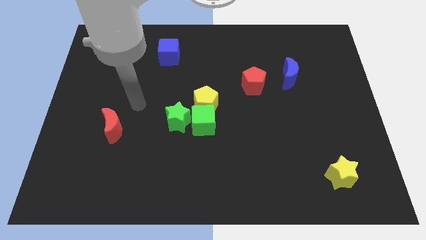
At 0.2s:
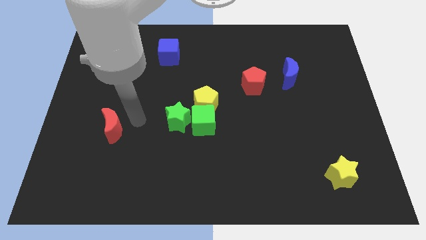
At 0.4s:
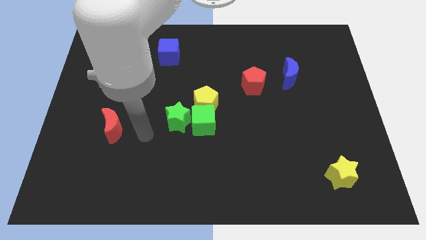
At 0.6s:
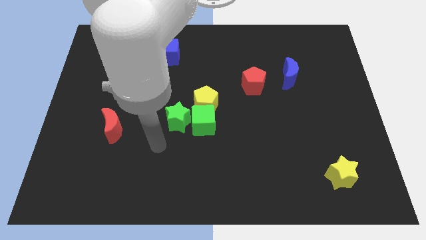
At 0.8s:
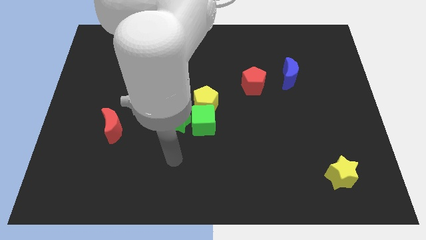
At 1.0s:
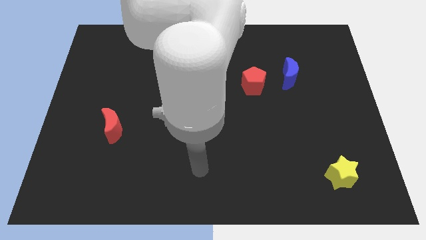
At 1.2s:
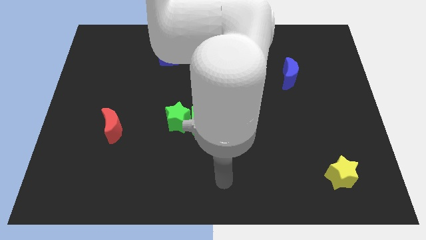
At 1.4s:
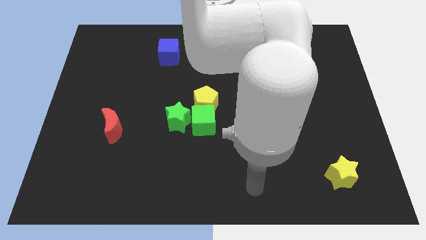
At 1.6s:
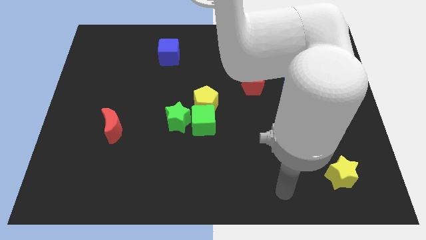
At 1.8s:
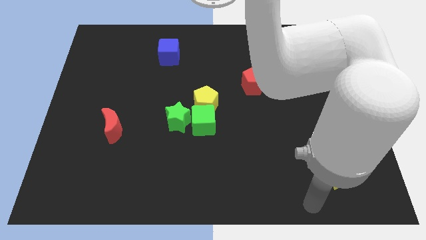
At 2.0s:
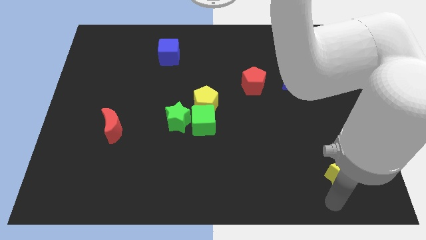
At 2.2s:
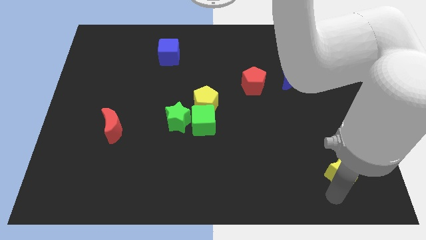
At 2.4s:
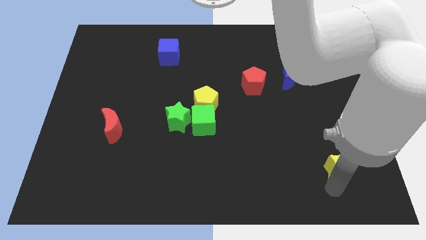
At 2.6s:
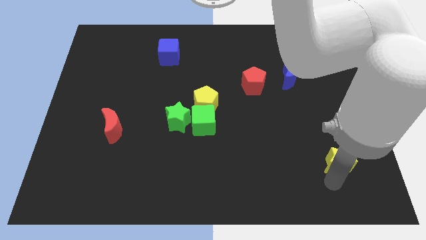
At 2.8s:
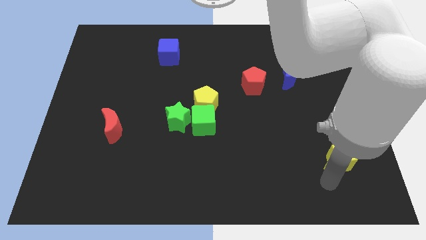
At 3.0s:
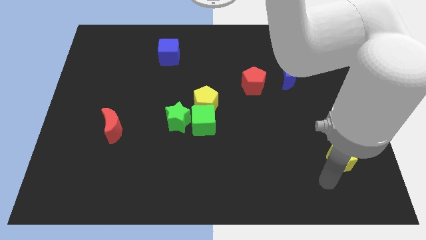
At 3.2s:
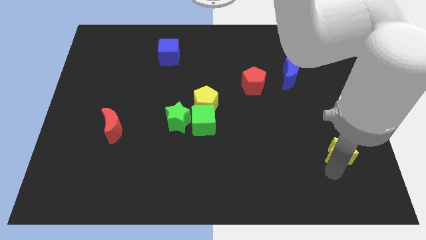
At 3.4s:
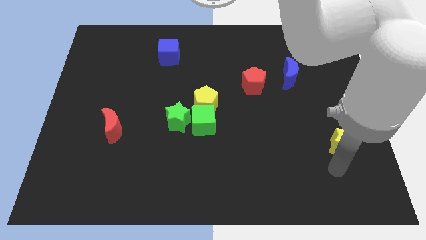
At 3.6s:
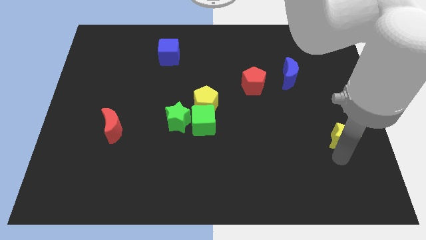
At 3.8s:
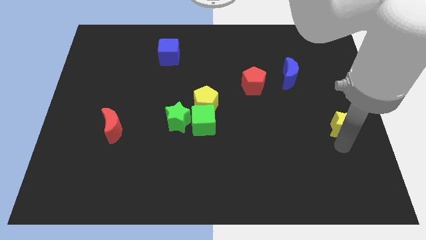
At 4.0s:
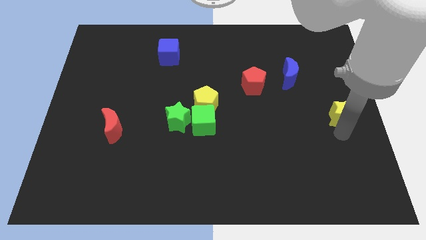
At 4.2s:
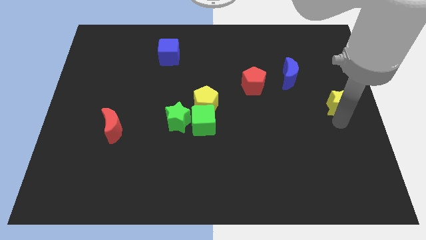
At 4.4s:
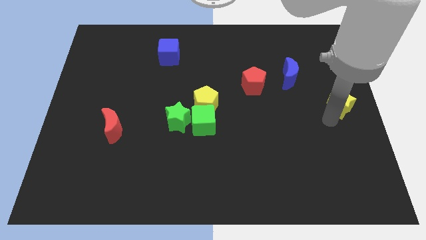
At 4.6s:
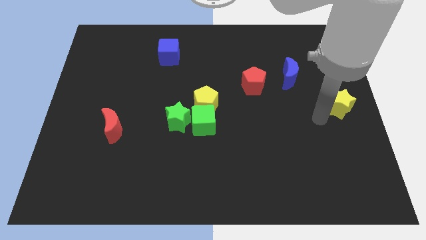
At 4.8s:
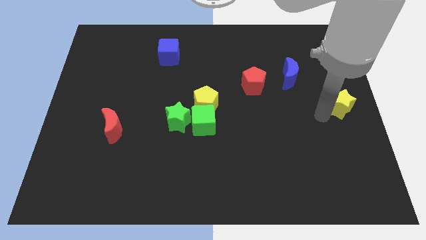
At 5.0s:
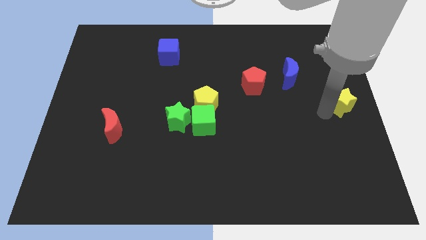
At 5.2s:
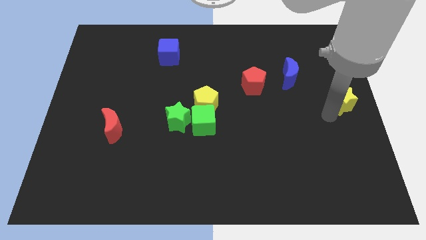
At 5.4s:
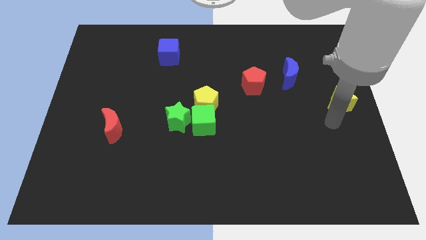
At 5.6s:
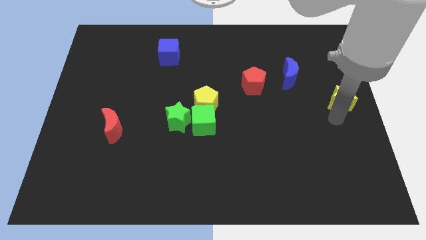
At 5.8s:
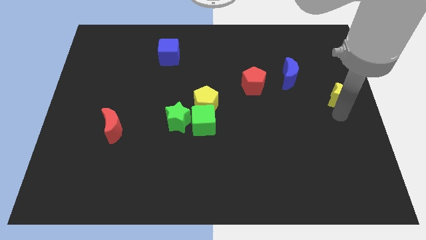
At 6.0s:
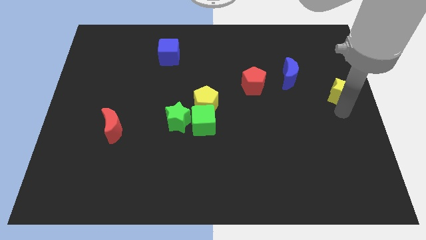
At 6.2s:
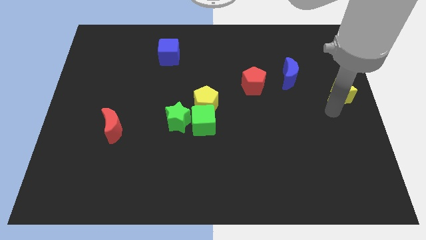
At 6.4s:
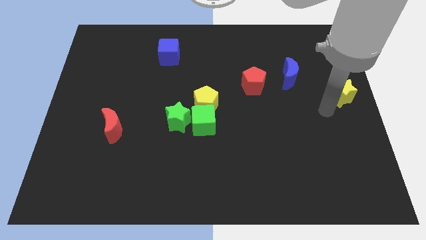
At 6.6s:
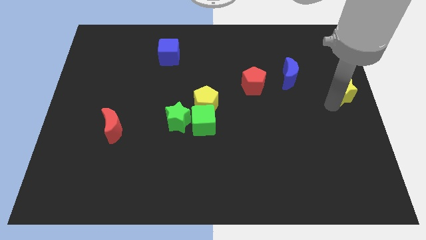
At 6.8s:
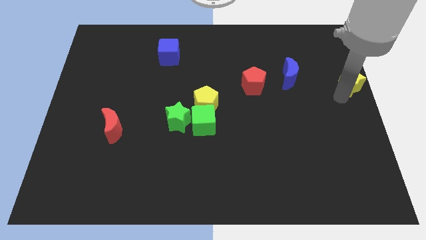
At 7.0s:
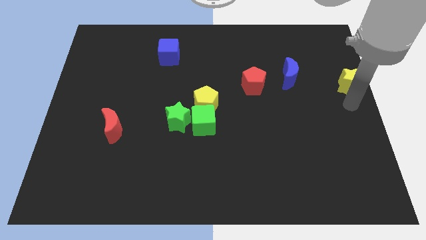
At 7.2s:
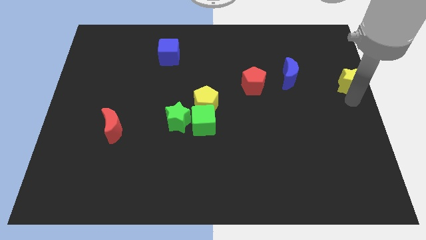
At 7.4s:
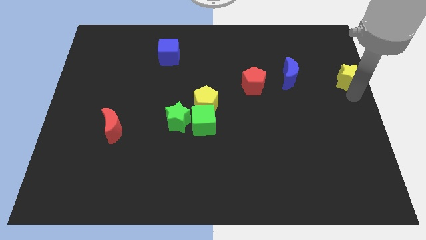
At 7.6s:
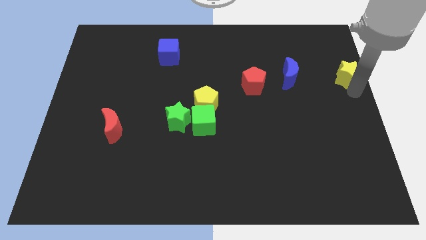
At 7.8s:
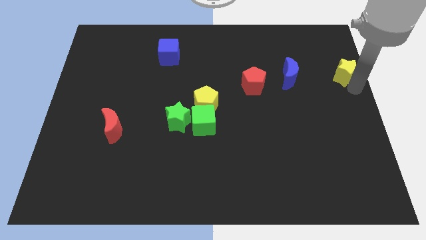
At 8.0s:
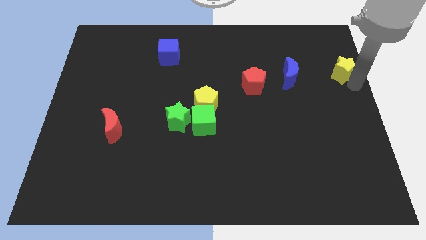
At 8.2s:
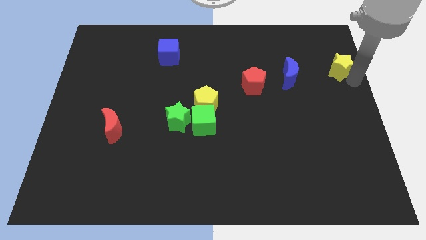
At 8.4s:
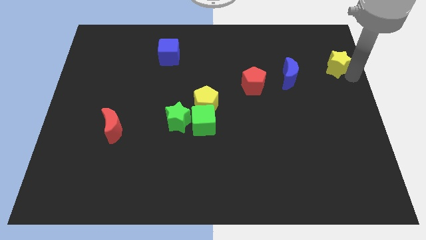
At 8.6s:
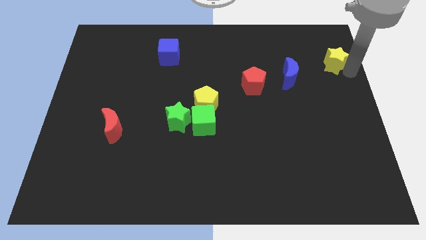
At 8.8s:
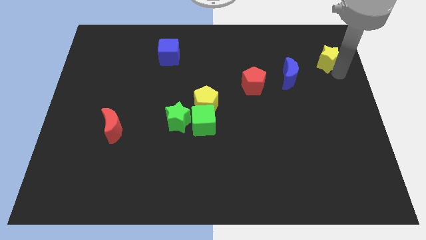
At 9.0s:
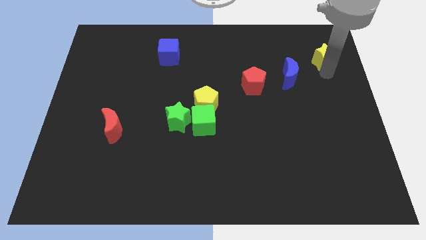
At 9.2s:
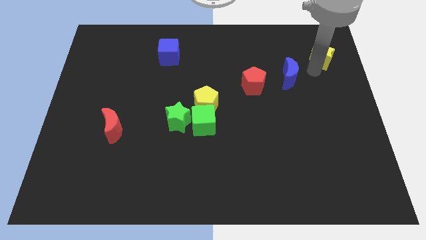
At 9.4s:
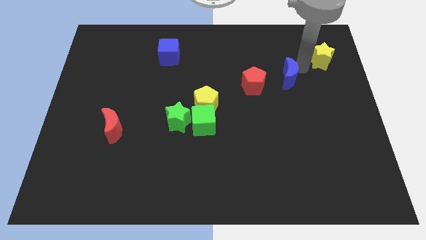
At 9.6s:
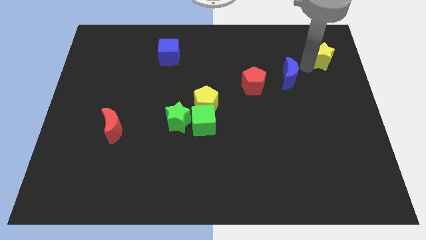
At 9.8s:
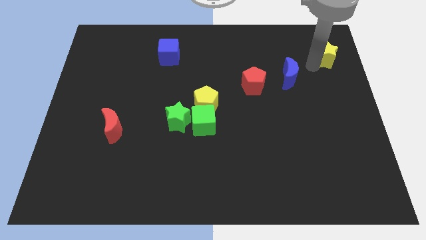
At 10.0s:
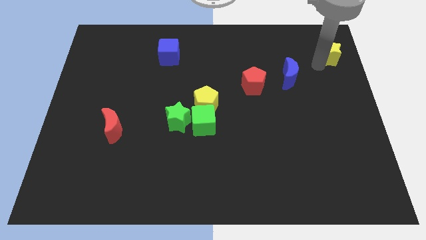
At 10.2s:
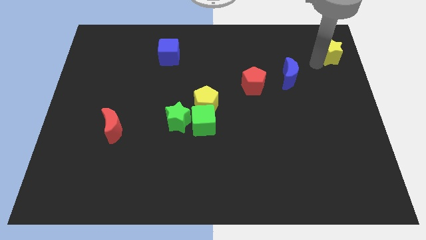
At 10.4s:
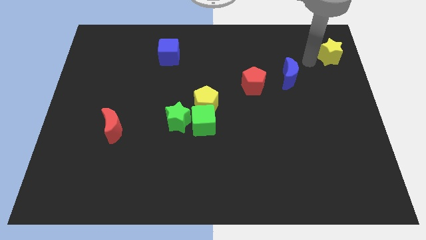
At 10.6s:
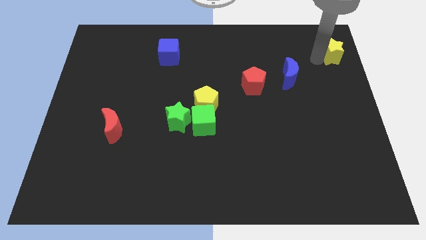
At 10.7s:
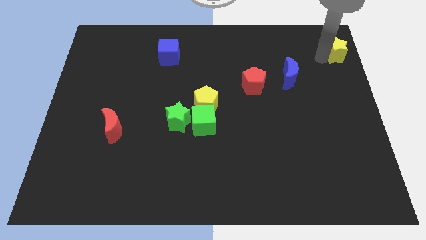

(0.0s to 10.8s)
push the yellow star to the upper right corner
